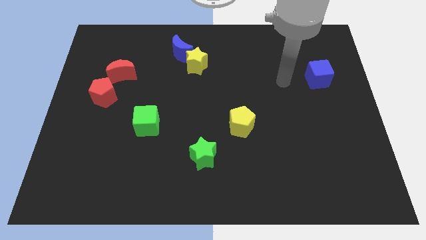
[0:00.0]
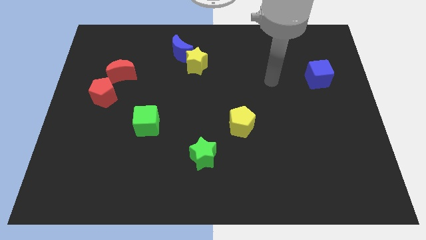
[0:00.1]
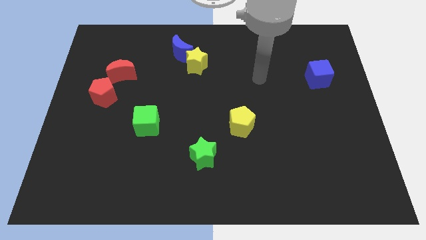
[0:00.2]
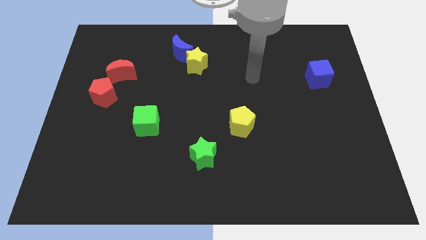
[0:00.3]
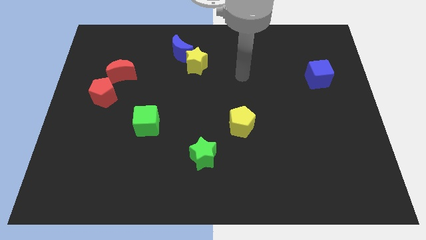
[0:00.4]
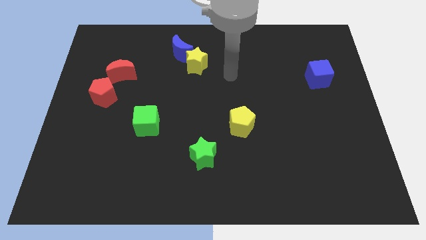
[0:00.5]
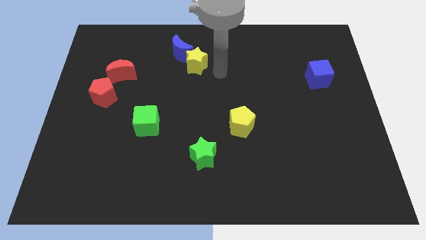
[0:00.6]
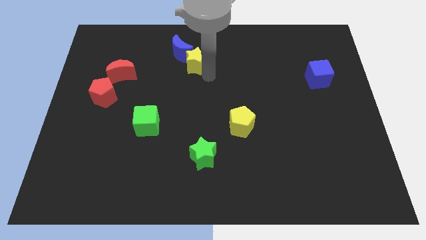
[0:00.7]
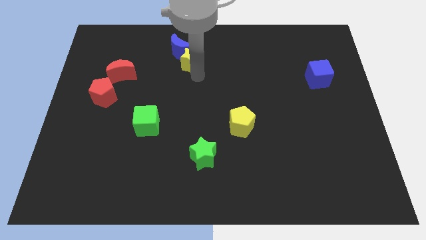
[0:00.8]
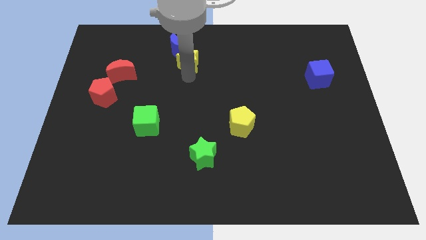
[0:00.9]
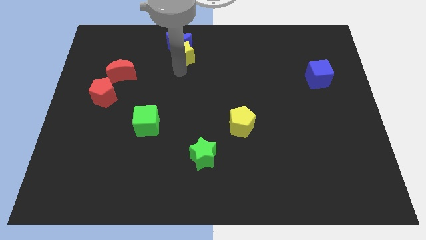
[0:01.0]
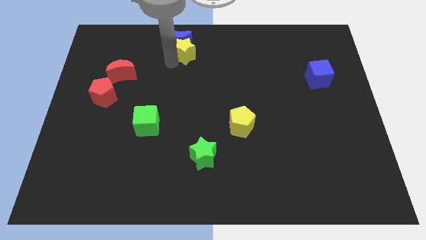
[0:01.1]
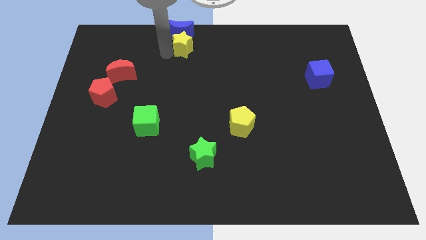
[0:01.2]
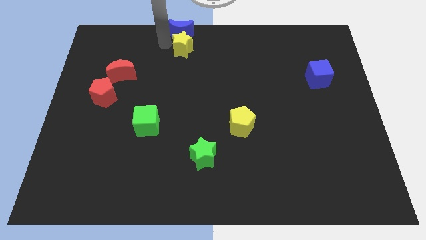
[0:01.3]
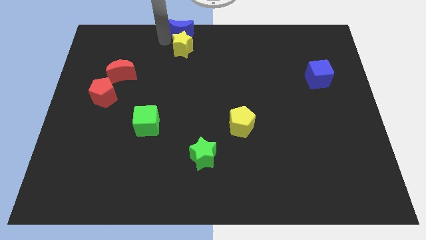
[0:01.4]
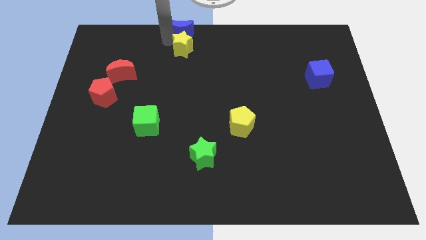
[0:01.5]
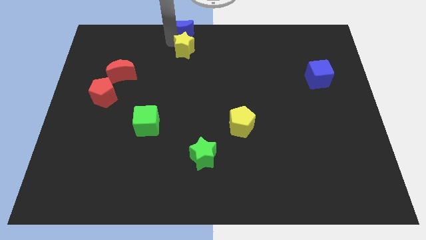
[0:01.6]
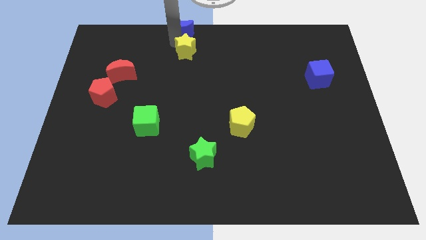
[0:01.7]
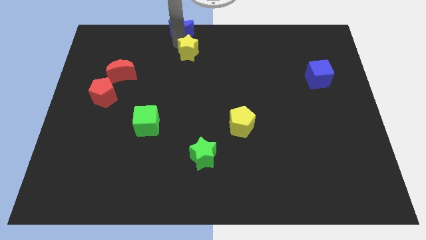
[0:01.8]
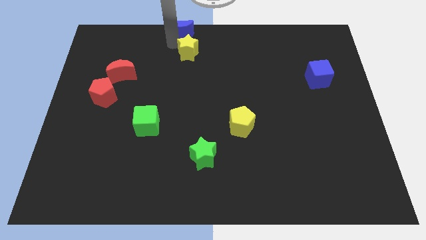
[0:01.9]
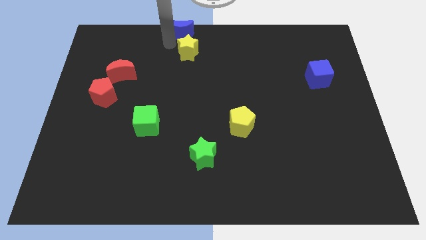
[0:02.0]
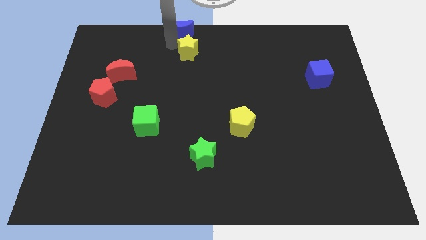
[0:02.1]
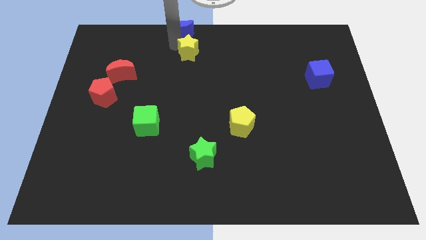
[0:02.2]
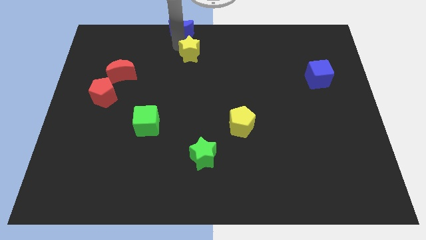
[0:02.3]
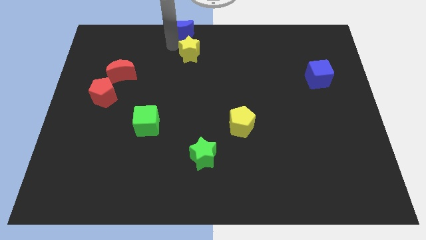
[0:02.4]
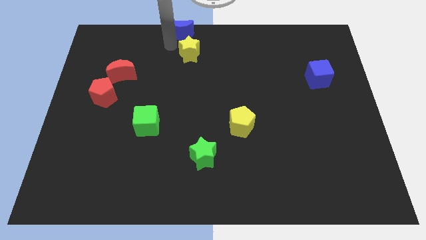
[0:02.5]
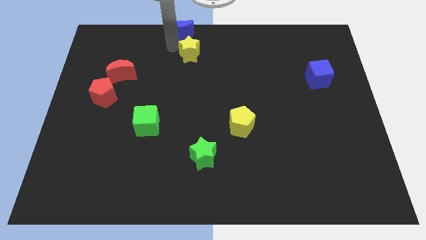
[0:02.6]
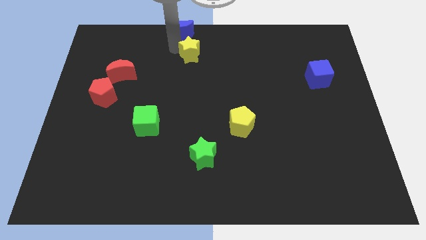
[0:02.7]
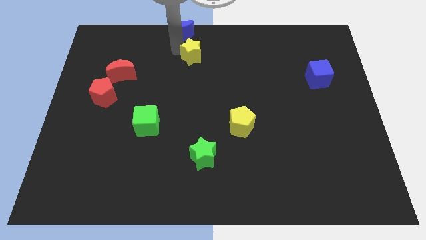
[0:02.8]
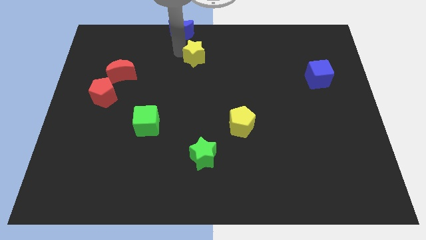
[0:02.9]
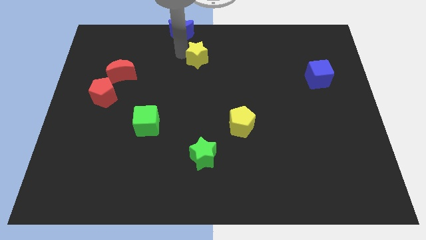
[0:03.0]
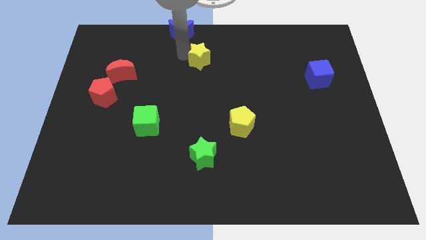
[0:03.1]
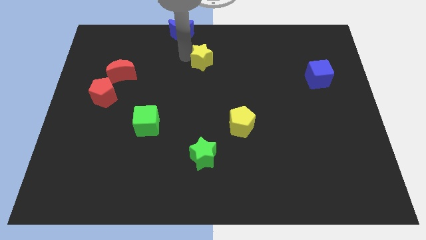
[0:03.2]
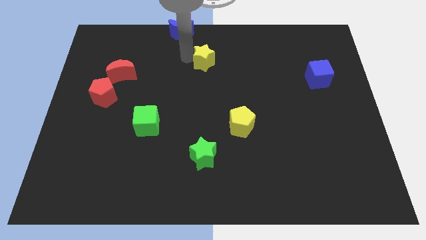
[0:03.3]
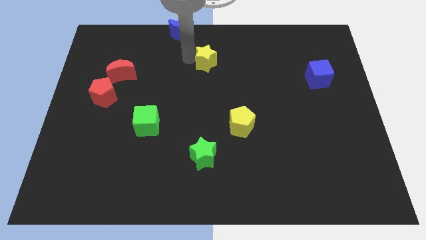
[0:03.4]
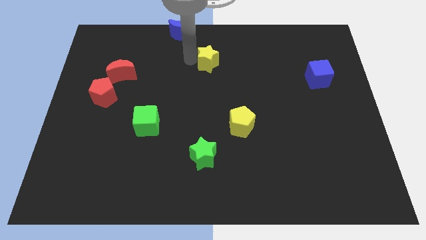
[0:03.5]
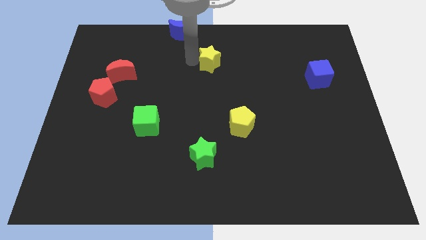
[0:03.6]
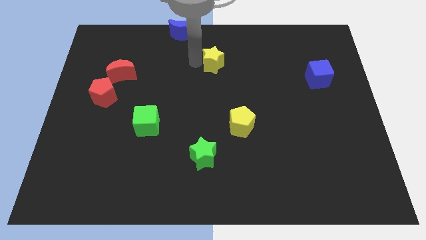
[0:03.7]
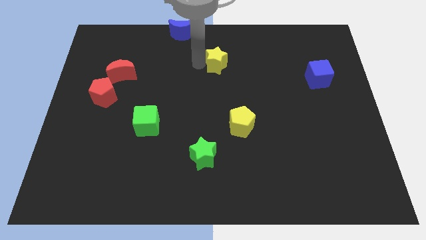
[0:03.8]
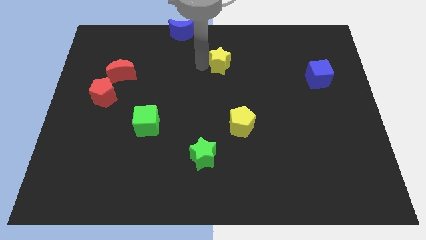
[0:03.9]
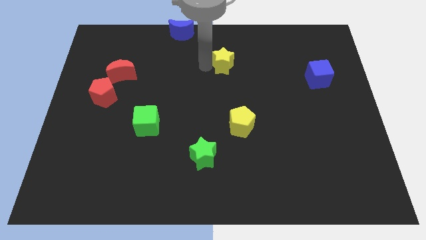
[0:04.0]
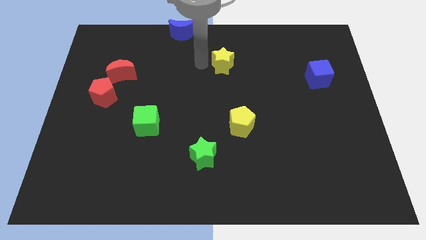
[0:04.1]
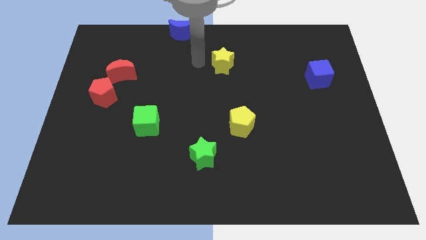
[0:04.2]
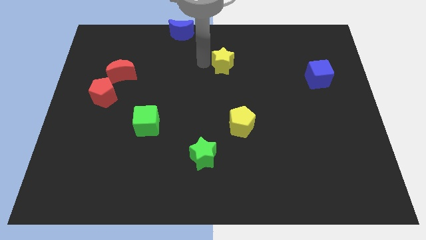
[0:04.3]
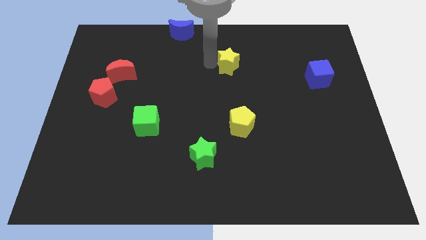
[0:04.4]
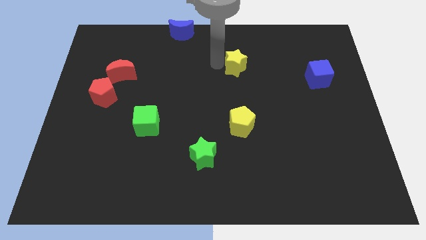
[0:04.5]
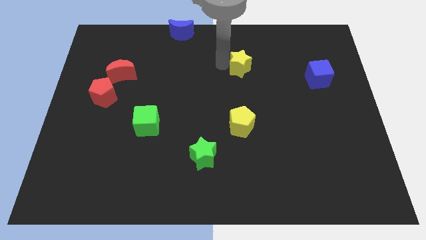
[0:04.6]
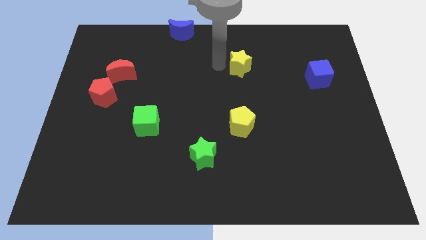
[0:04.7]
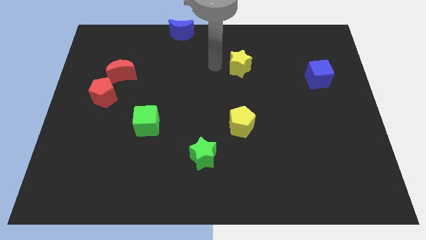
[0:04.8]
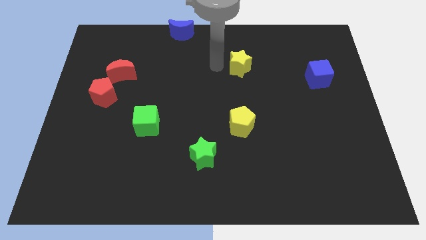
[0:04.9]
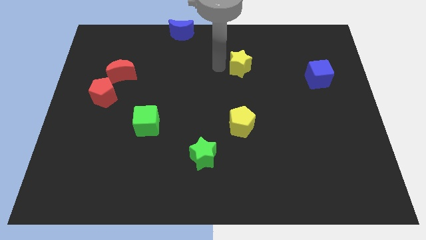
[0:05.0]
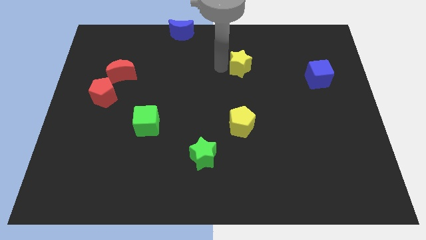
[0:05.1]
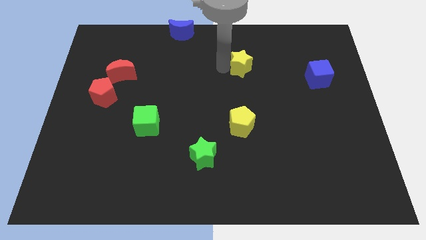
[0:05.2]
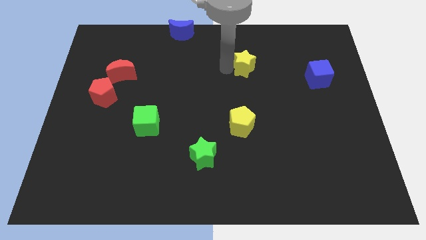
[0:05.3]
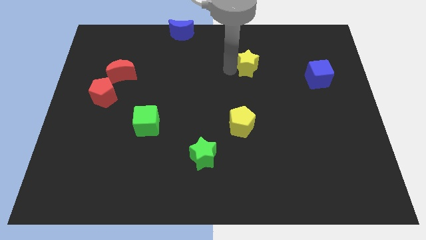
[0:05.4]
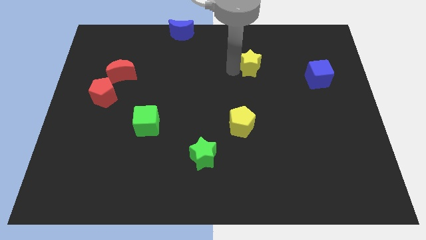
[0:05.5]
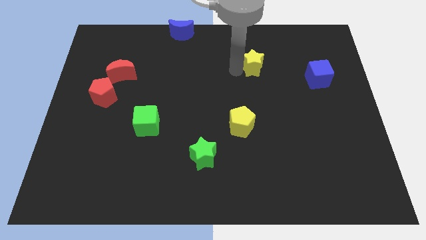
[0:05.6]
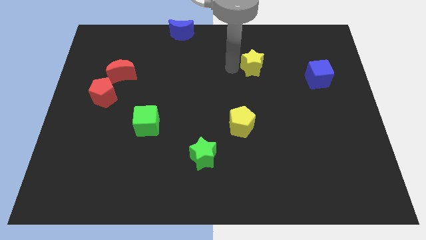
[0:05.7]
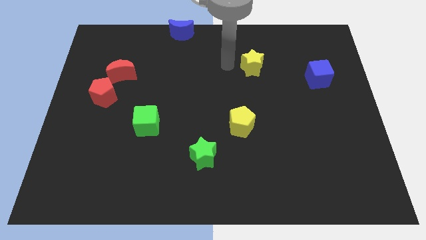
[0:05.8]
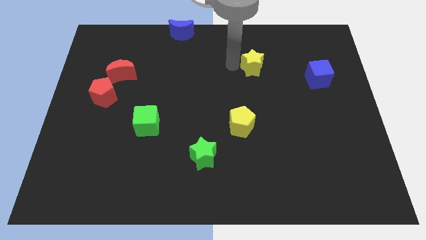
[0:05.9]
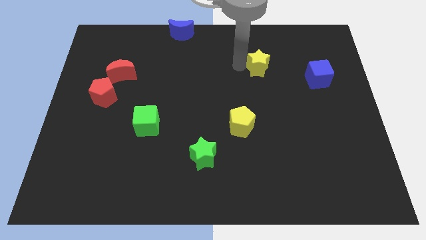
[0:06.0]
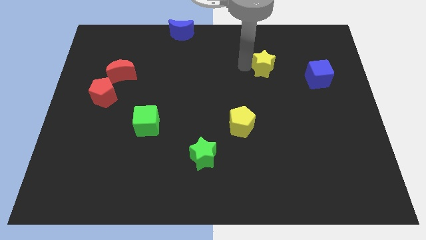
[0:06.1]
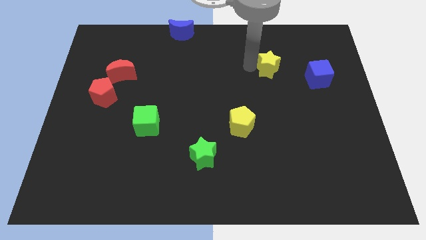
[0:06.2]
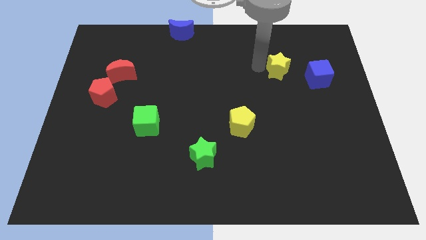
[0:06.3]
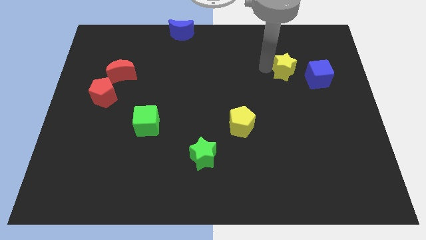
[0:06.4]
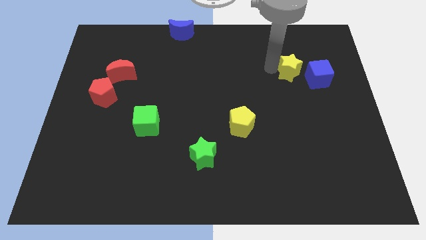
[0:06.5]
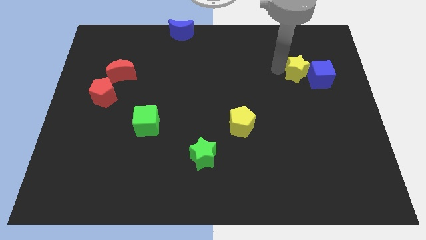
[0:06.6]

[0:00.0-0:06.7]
put the yellow star close to the blue cube

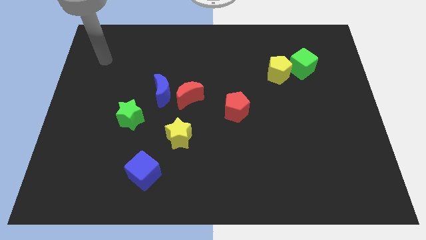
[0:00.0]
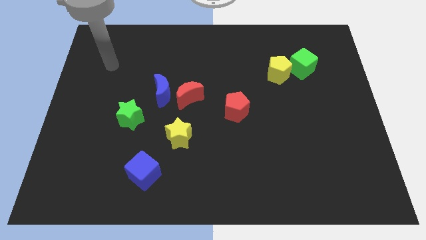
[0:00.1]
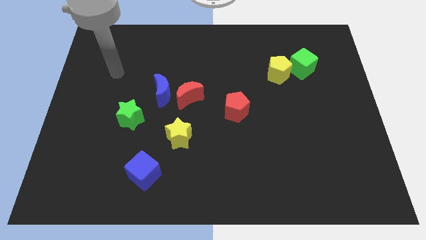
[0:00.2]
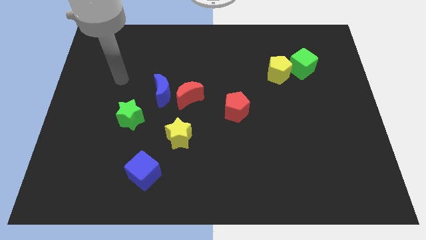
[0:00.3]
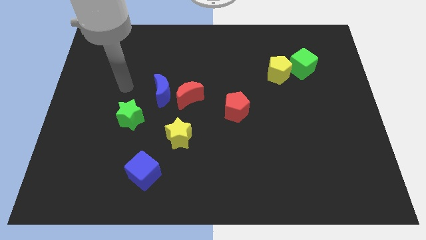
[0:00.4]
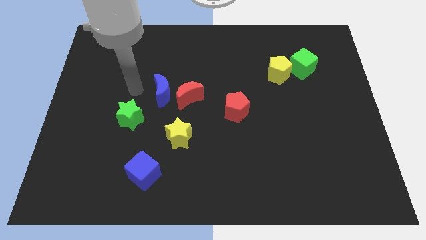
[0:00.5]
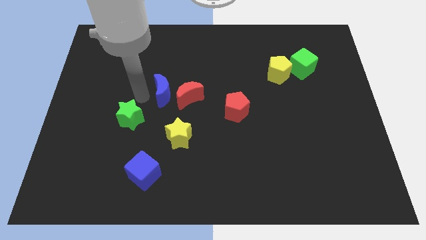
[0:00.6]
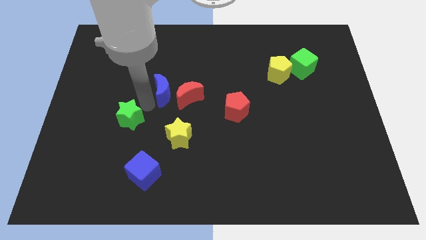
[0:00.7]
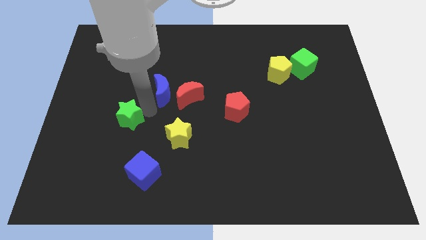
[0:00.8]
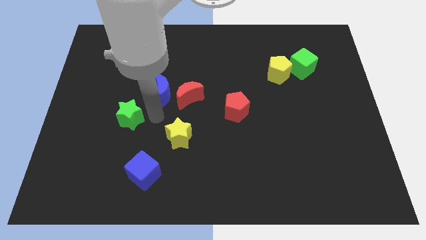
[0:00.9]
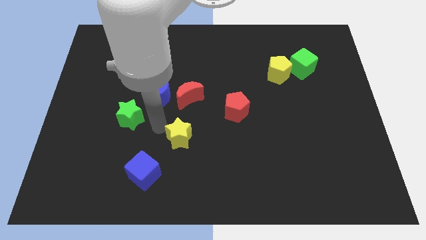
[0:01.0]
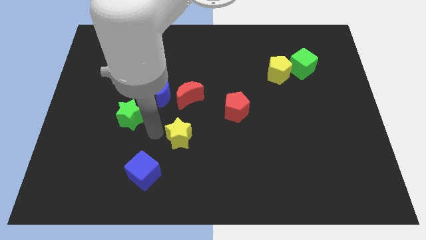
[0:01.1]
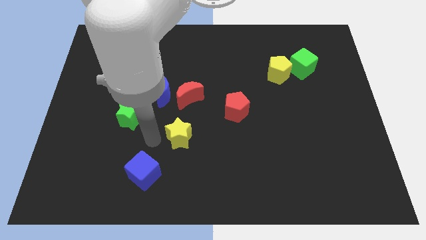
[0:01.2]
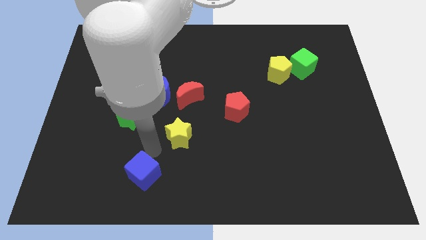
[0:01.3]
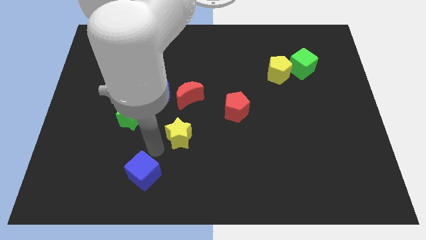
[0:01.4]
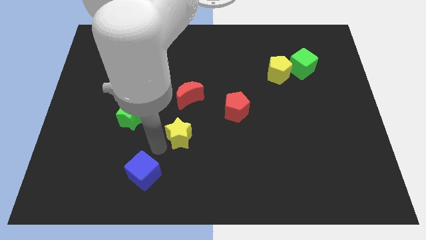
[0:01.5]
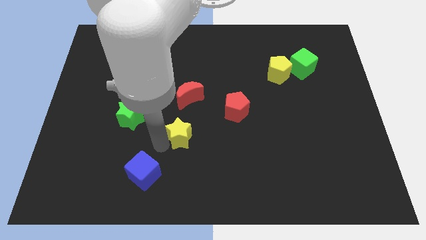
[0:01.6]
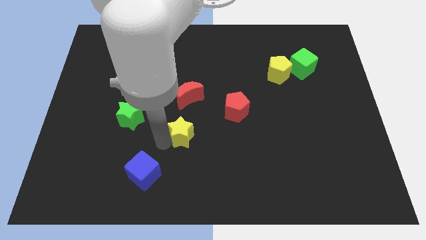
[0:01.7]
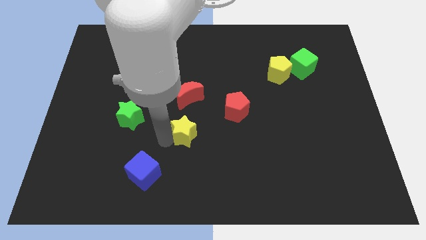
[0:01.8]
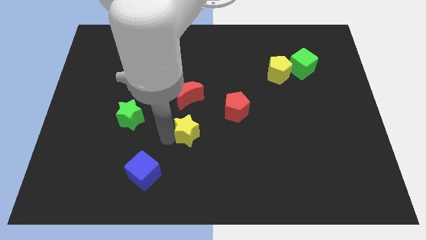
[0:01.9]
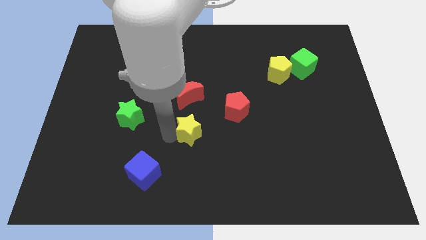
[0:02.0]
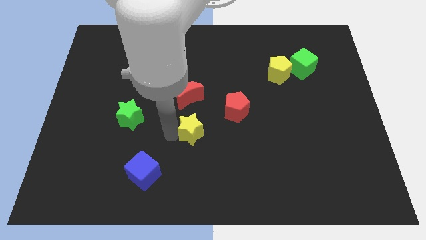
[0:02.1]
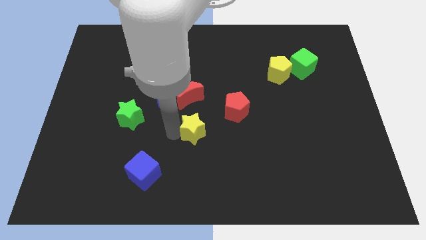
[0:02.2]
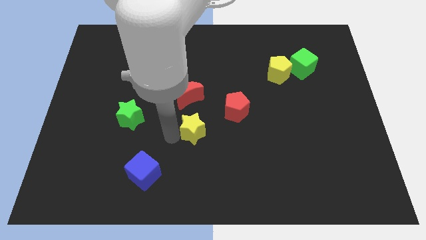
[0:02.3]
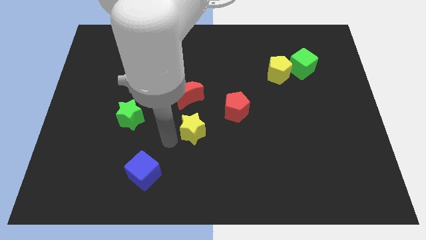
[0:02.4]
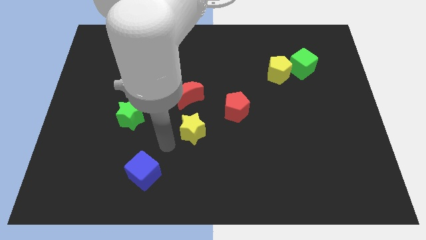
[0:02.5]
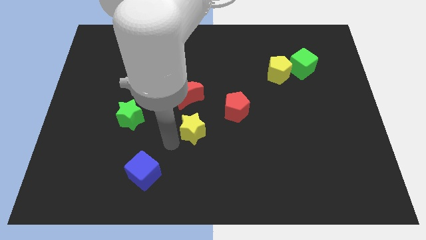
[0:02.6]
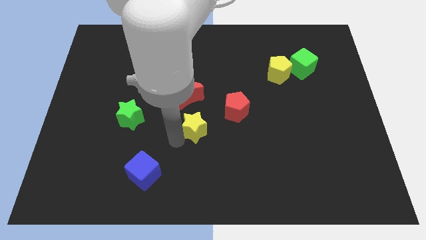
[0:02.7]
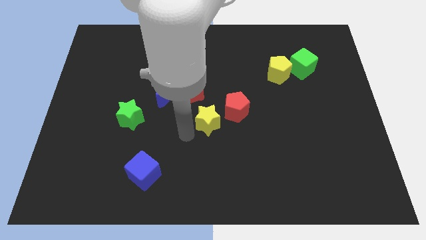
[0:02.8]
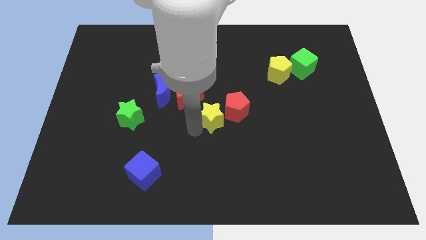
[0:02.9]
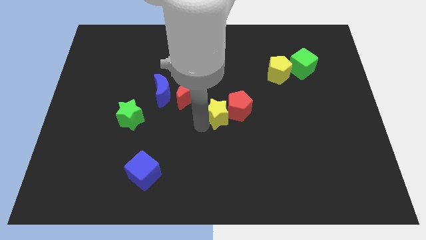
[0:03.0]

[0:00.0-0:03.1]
move the yellow star next to the red pentagon
